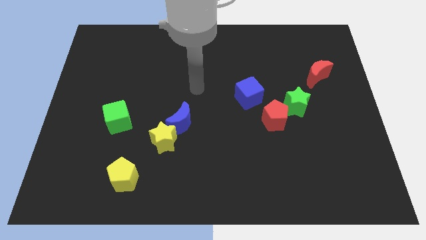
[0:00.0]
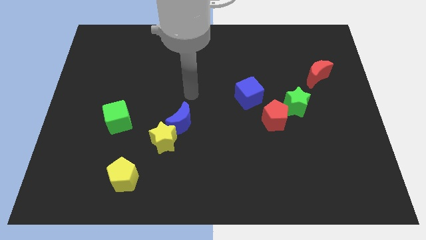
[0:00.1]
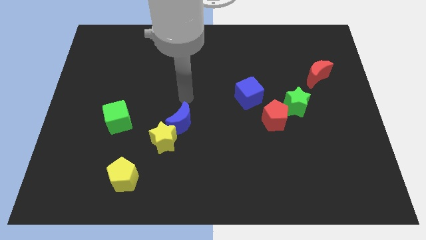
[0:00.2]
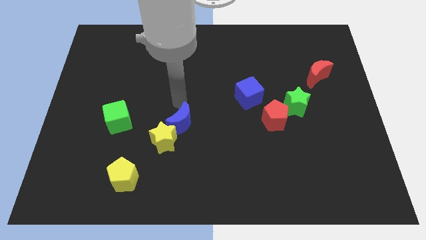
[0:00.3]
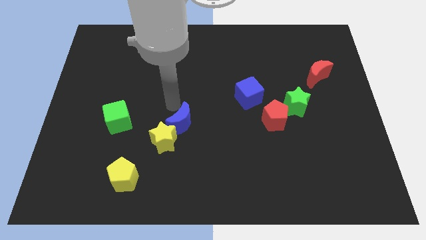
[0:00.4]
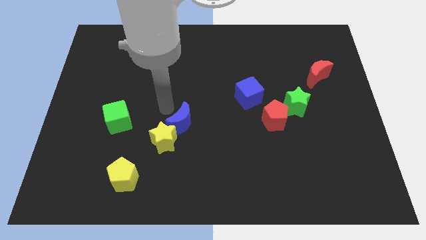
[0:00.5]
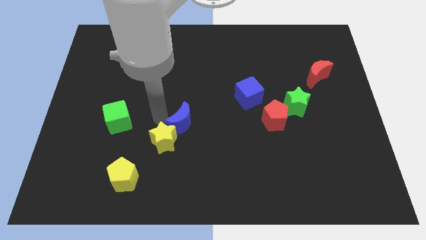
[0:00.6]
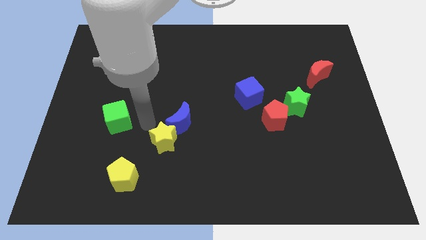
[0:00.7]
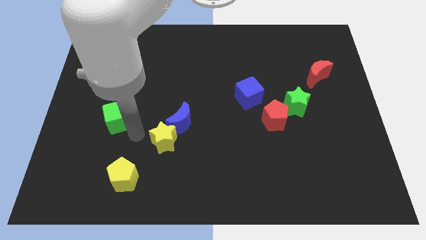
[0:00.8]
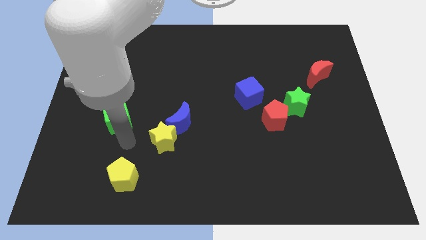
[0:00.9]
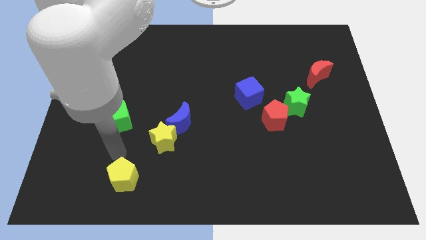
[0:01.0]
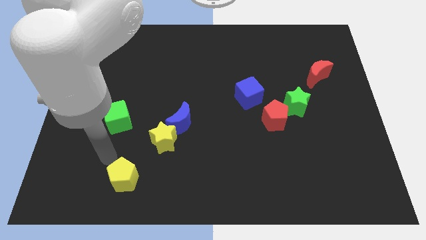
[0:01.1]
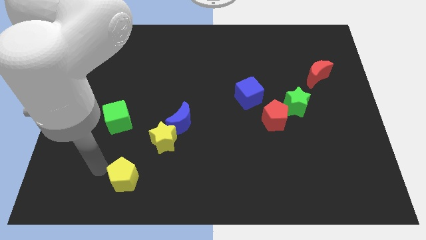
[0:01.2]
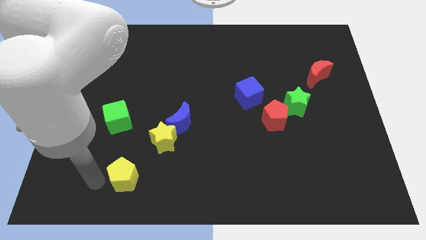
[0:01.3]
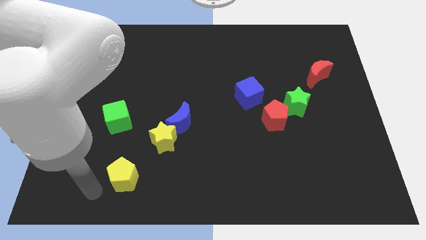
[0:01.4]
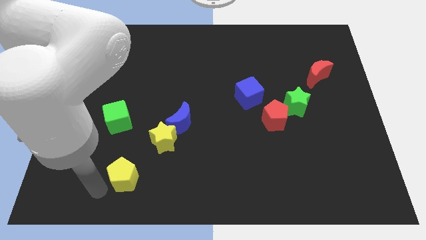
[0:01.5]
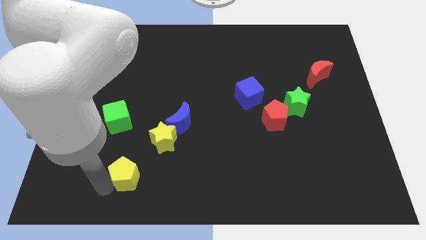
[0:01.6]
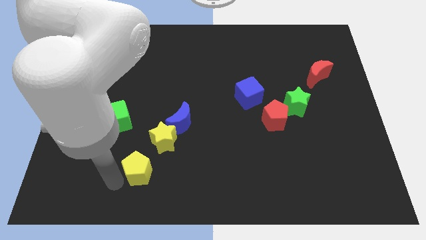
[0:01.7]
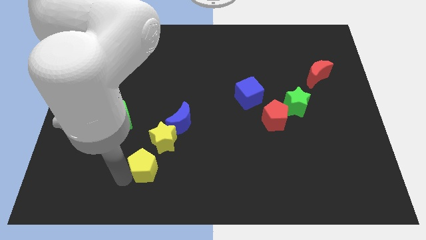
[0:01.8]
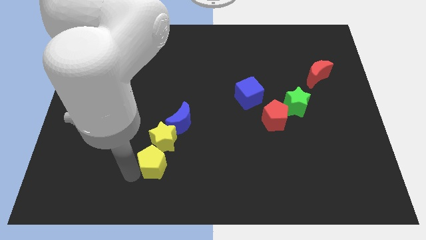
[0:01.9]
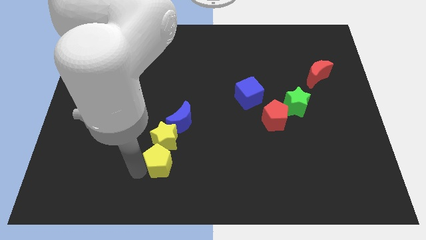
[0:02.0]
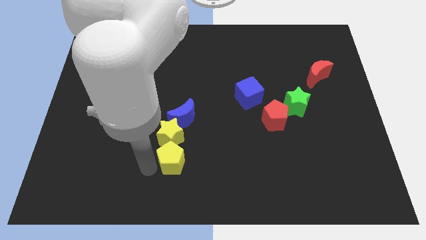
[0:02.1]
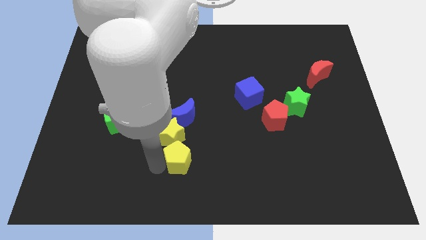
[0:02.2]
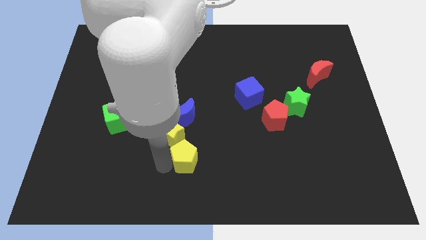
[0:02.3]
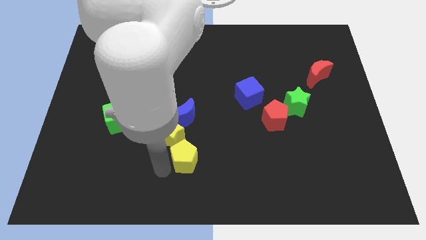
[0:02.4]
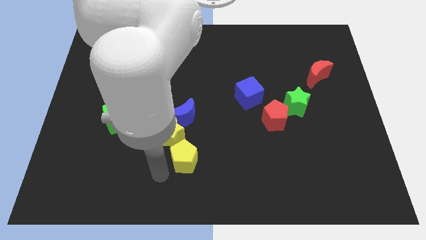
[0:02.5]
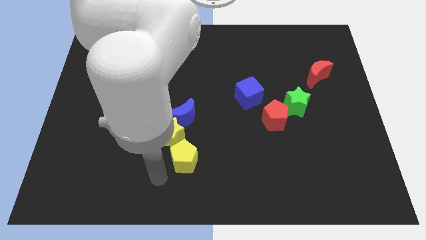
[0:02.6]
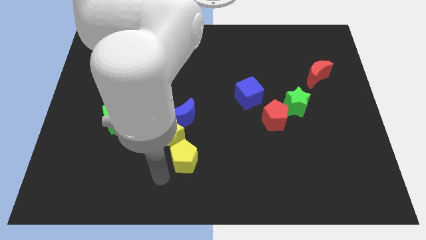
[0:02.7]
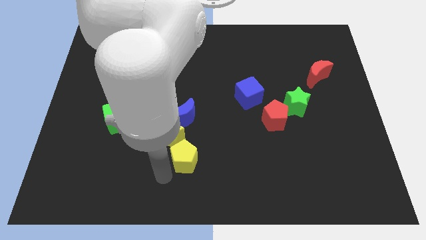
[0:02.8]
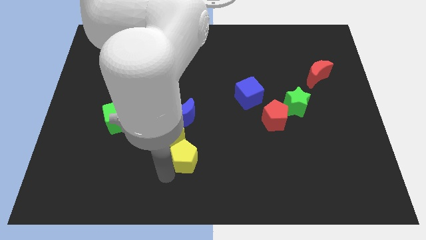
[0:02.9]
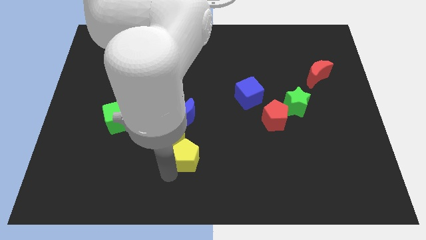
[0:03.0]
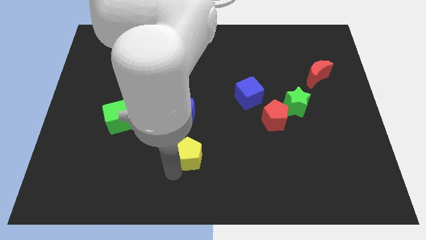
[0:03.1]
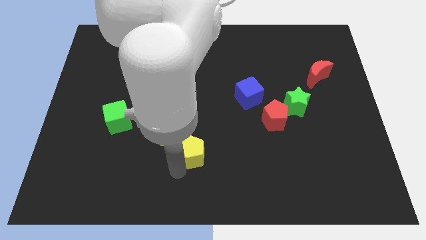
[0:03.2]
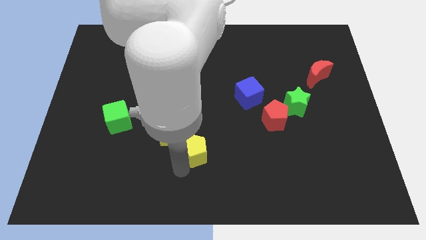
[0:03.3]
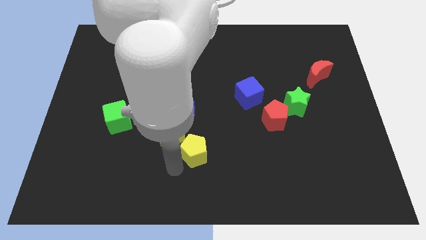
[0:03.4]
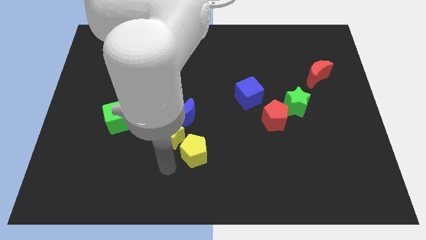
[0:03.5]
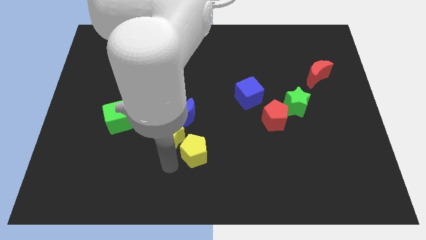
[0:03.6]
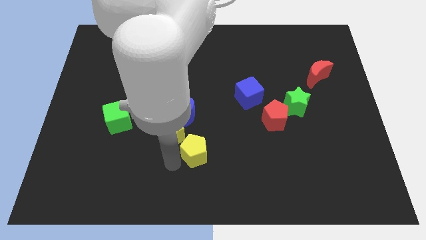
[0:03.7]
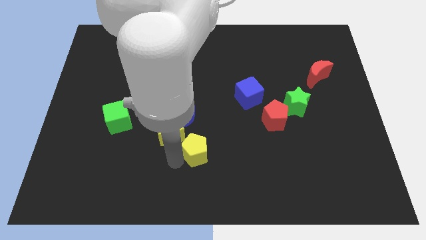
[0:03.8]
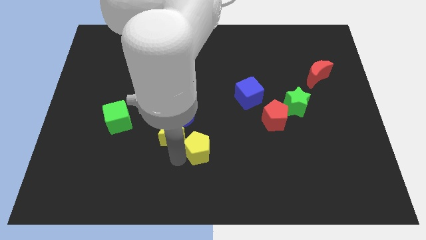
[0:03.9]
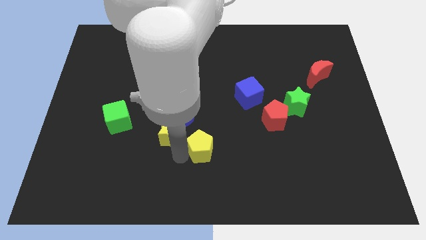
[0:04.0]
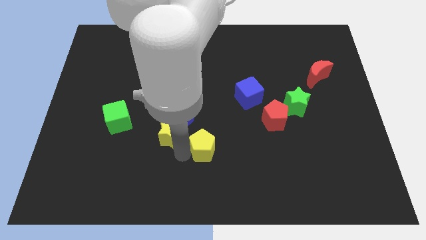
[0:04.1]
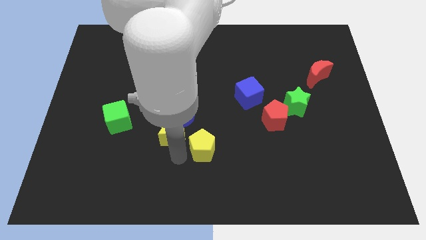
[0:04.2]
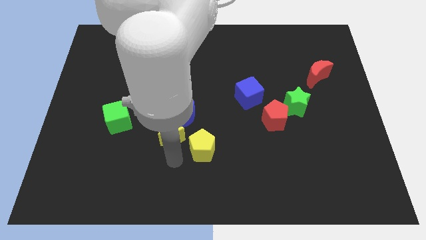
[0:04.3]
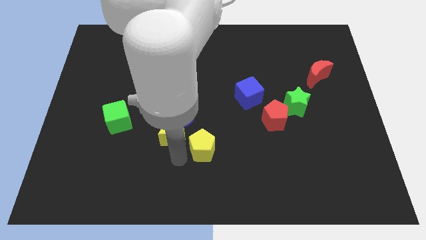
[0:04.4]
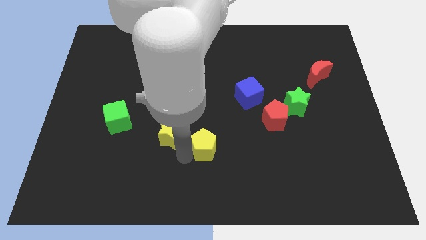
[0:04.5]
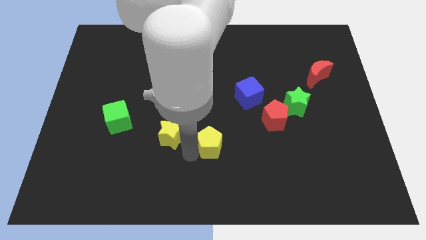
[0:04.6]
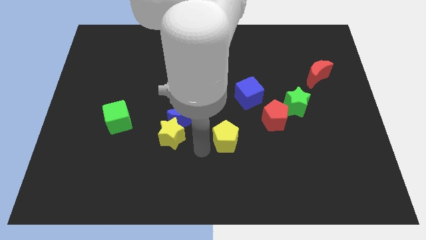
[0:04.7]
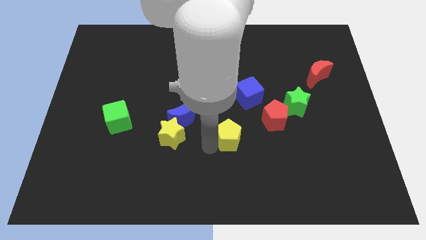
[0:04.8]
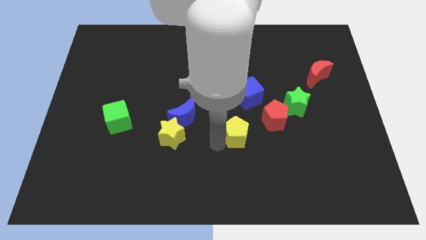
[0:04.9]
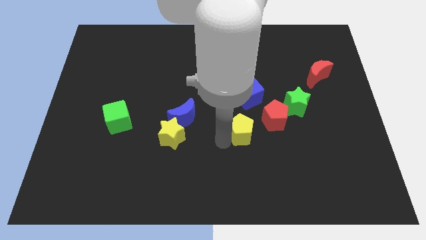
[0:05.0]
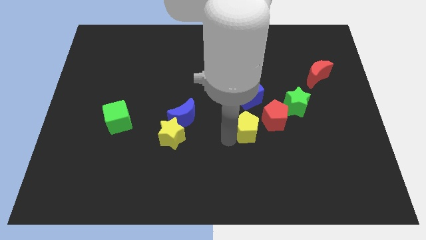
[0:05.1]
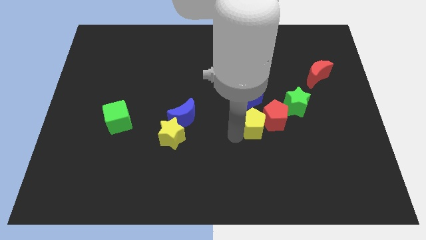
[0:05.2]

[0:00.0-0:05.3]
move the yellow pentagon to the red pentagon

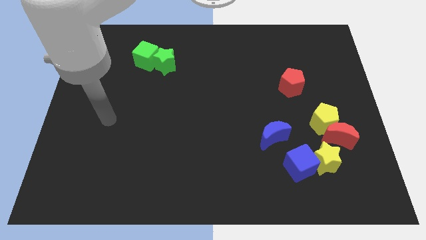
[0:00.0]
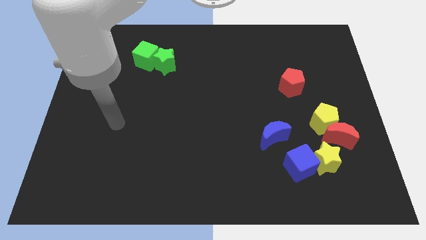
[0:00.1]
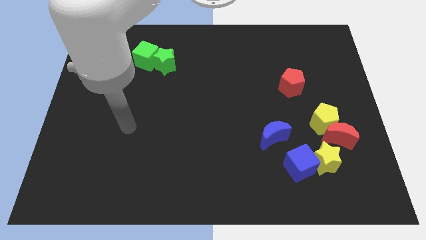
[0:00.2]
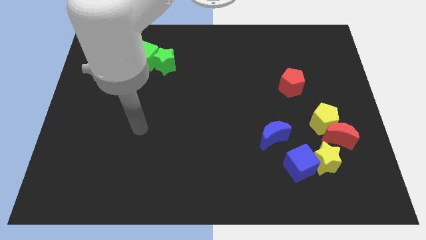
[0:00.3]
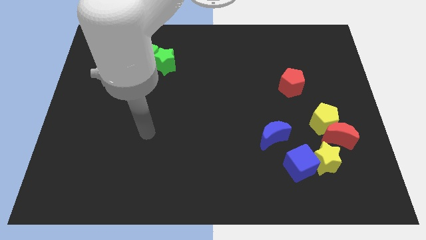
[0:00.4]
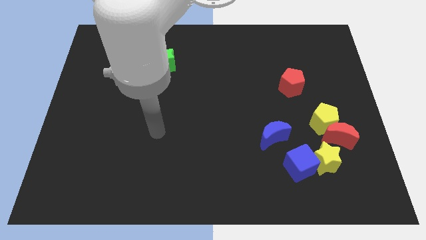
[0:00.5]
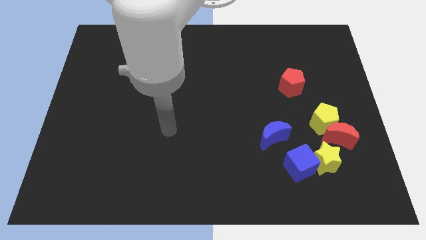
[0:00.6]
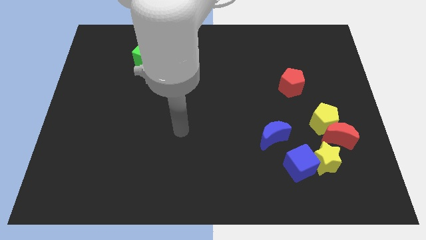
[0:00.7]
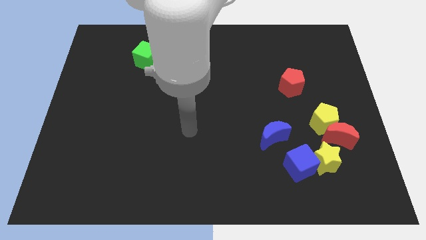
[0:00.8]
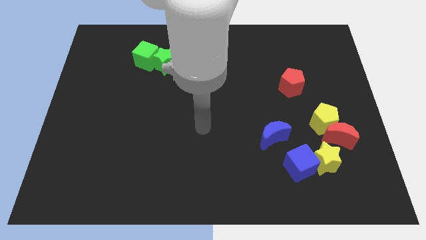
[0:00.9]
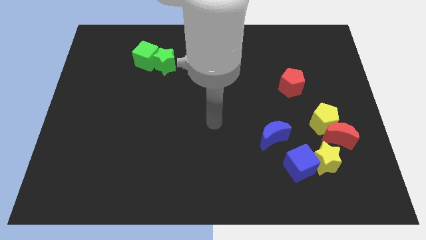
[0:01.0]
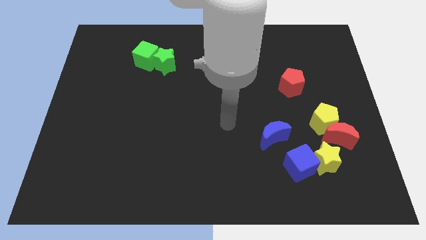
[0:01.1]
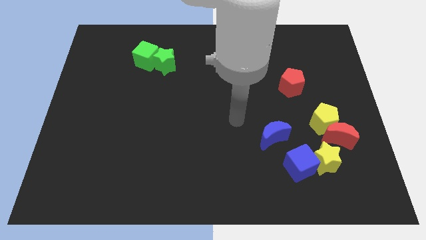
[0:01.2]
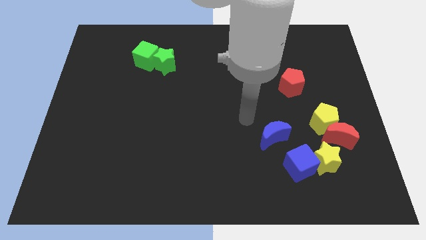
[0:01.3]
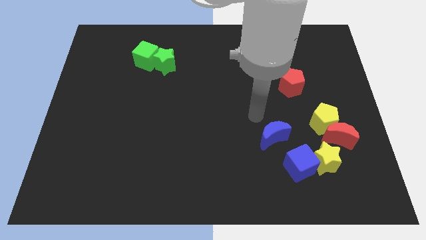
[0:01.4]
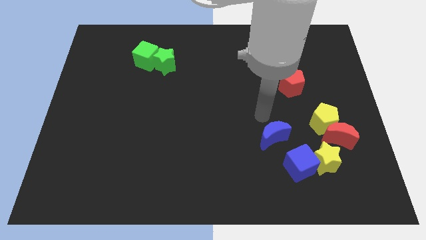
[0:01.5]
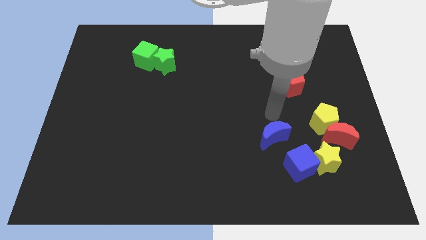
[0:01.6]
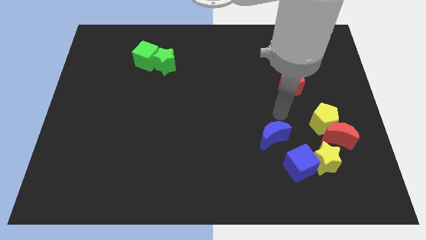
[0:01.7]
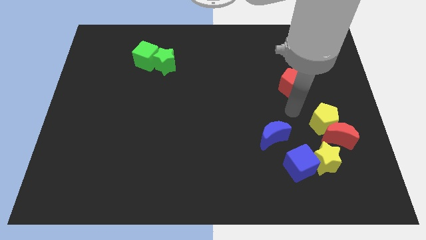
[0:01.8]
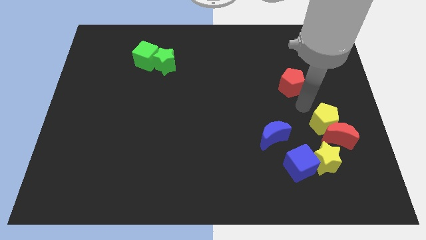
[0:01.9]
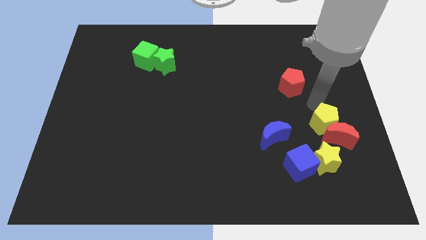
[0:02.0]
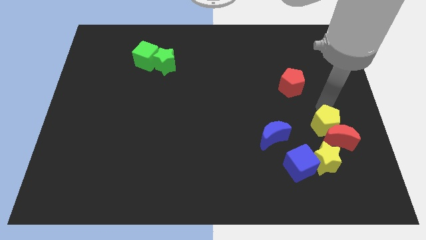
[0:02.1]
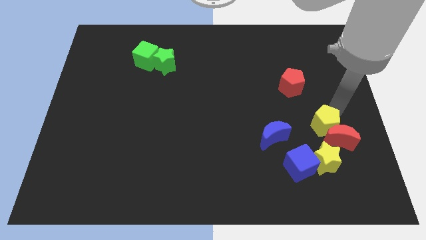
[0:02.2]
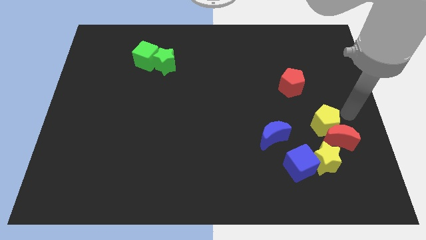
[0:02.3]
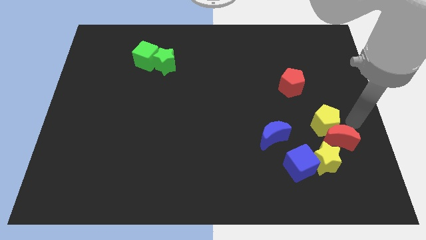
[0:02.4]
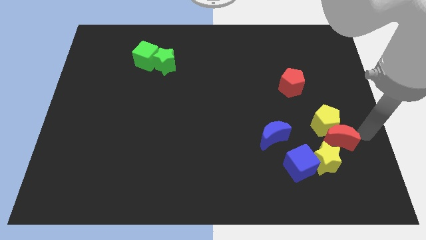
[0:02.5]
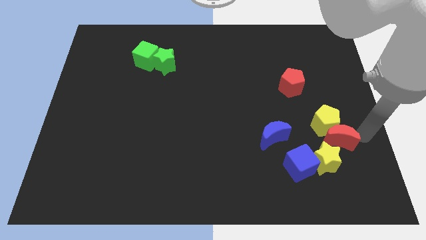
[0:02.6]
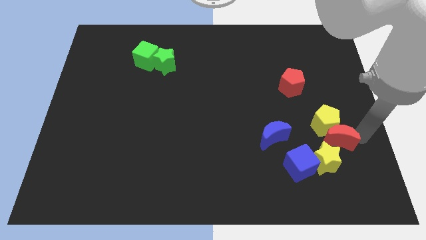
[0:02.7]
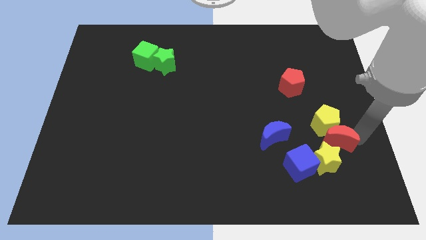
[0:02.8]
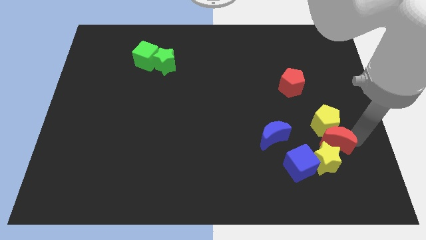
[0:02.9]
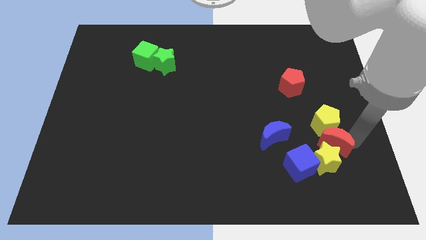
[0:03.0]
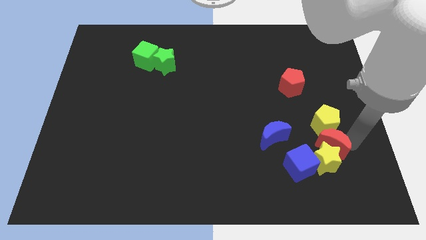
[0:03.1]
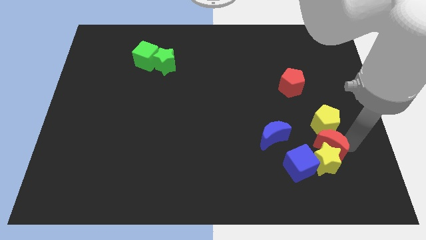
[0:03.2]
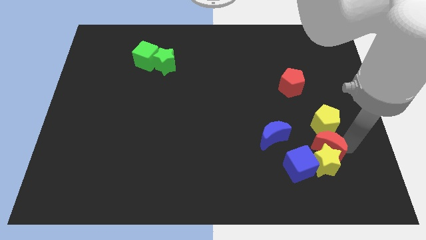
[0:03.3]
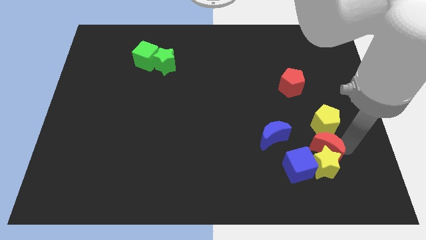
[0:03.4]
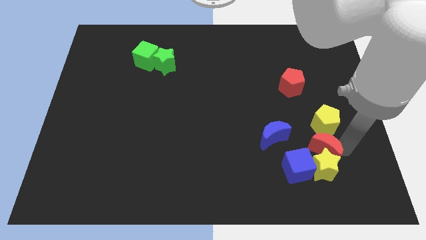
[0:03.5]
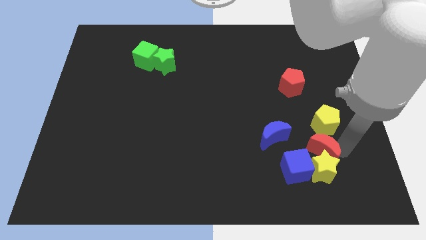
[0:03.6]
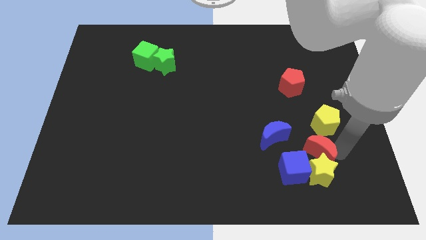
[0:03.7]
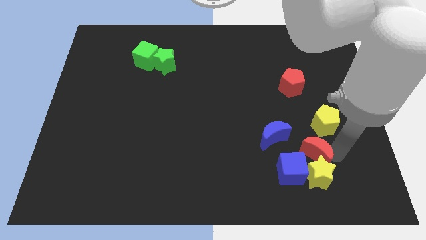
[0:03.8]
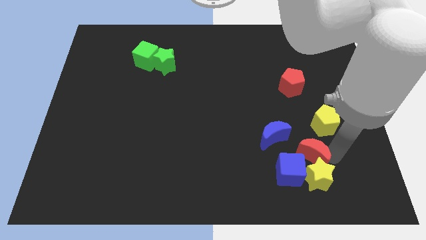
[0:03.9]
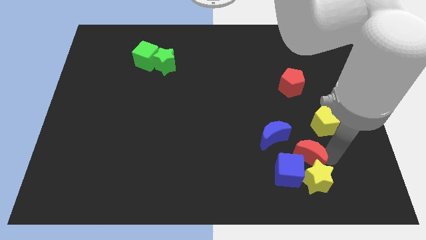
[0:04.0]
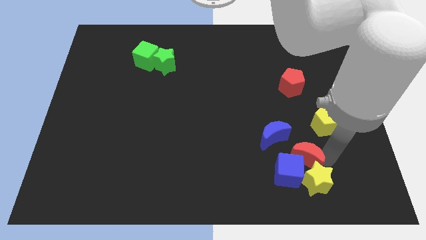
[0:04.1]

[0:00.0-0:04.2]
move the red moon towards the blue cube
